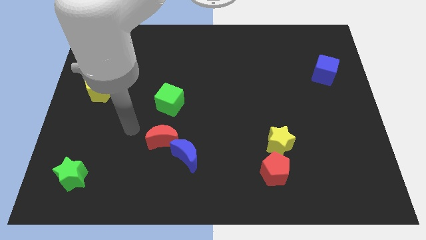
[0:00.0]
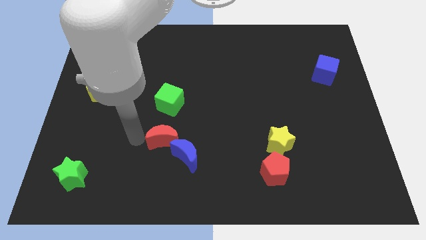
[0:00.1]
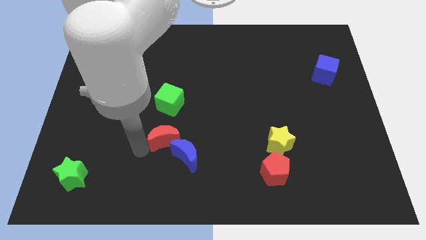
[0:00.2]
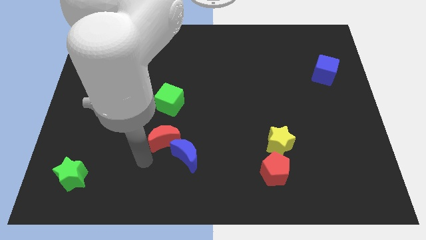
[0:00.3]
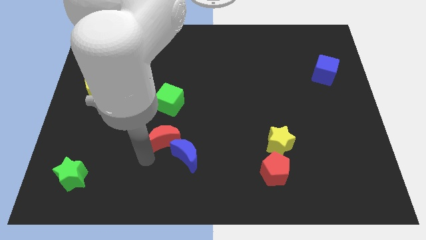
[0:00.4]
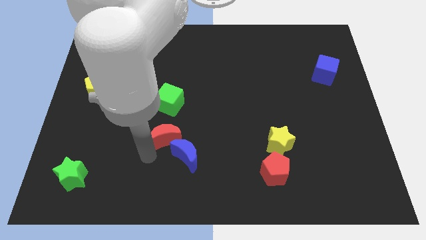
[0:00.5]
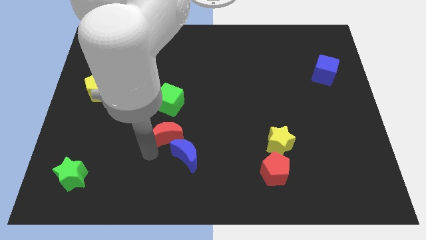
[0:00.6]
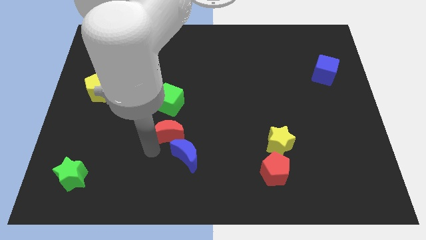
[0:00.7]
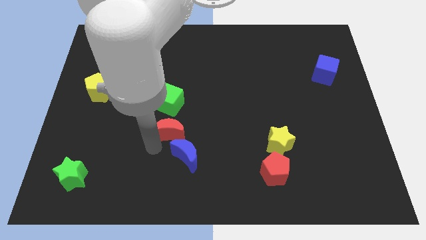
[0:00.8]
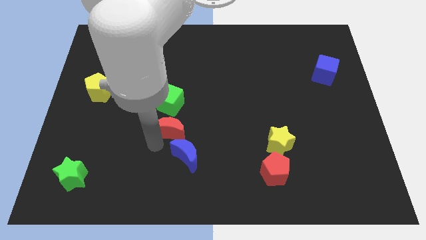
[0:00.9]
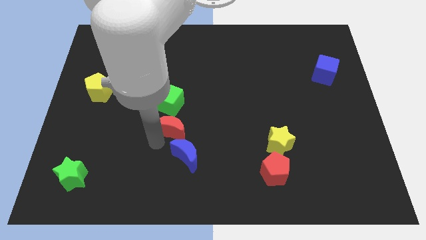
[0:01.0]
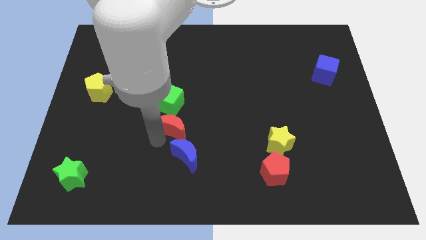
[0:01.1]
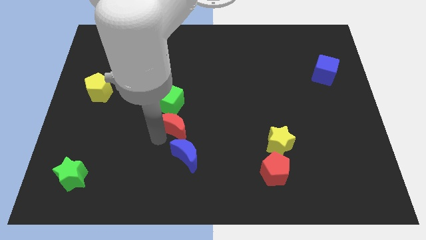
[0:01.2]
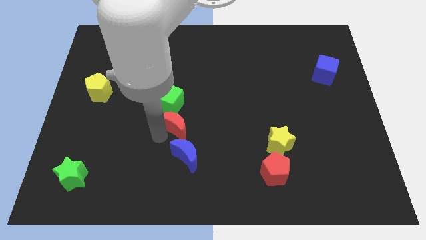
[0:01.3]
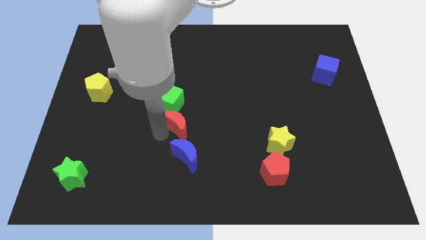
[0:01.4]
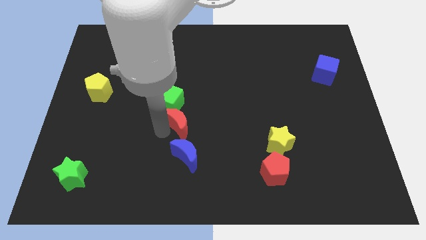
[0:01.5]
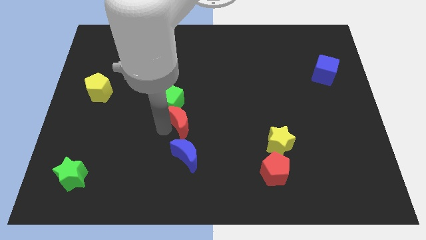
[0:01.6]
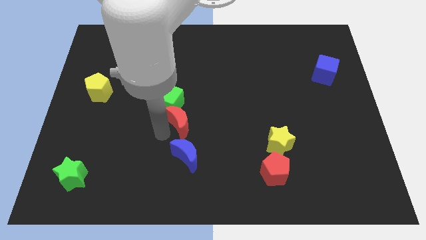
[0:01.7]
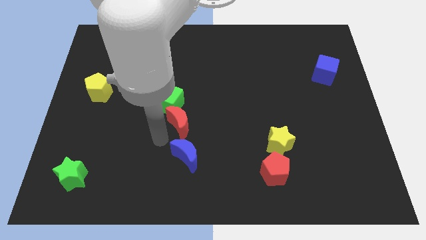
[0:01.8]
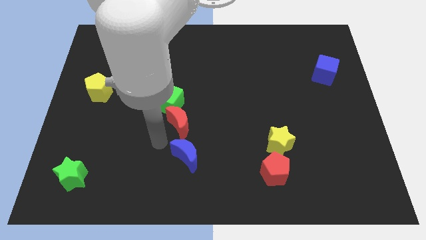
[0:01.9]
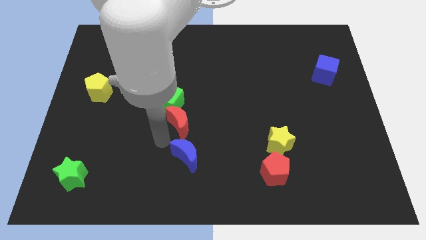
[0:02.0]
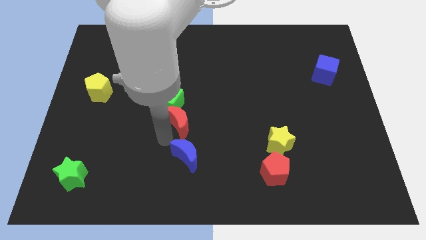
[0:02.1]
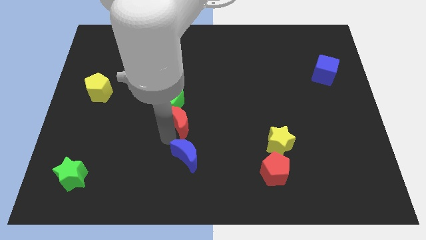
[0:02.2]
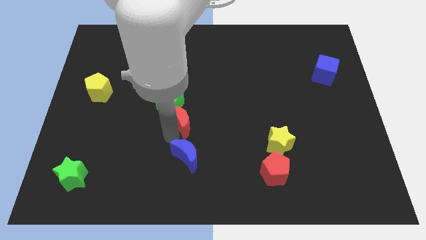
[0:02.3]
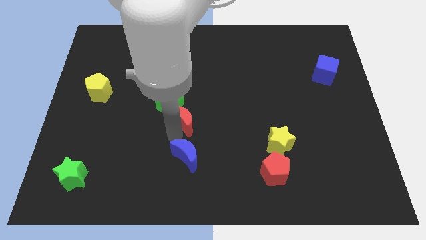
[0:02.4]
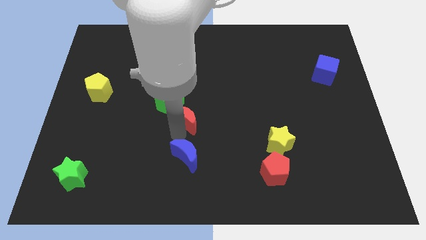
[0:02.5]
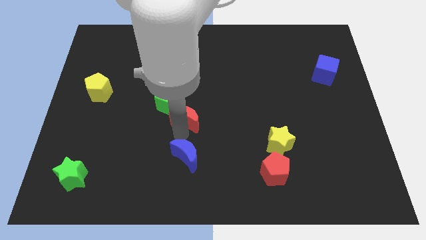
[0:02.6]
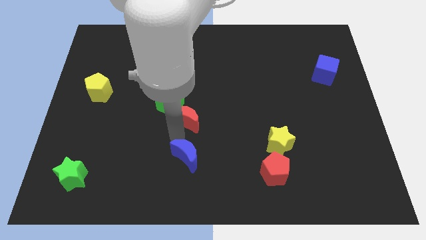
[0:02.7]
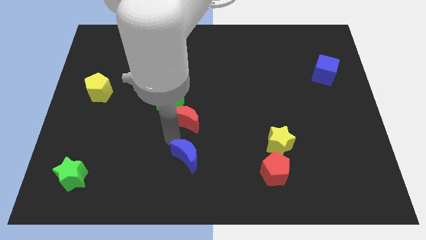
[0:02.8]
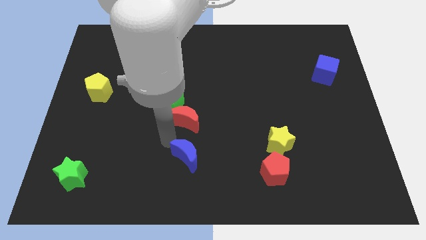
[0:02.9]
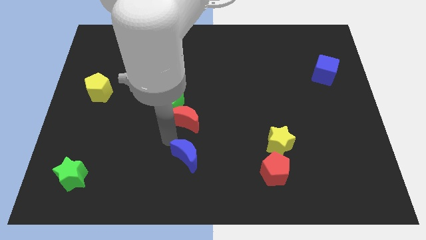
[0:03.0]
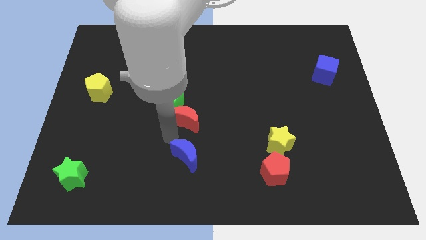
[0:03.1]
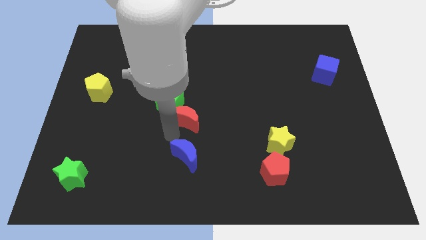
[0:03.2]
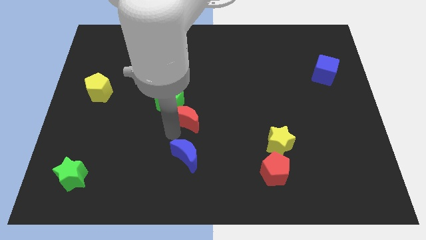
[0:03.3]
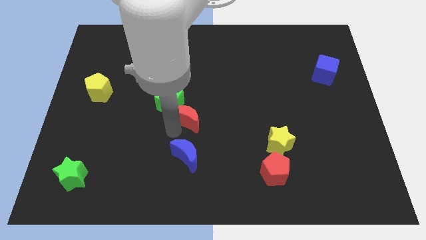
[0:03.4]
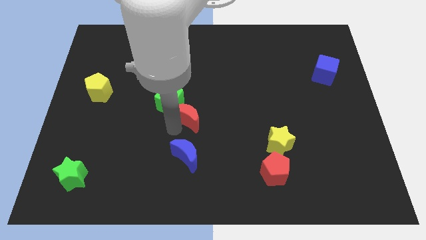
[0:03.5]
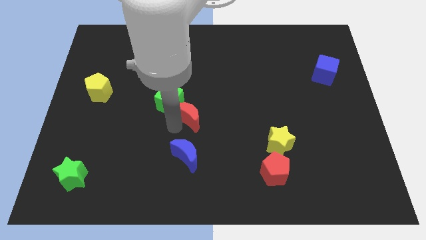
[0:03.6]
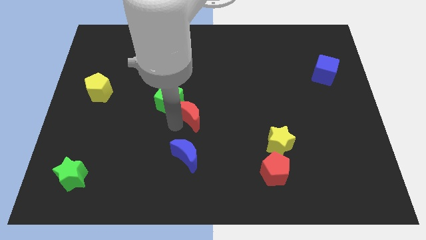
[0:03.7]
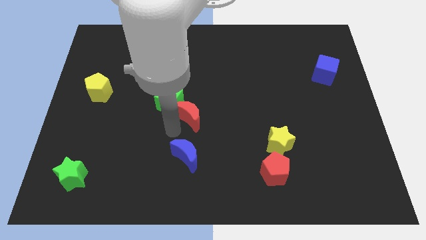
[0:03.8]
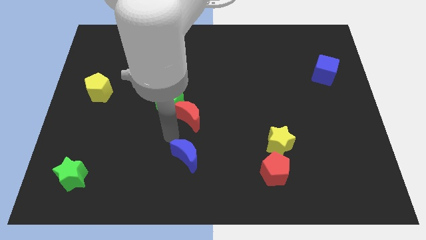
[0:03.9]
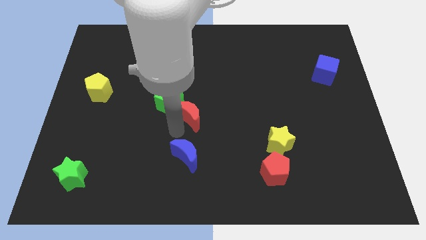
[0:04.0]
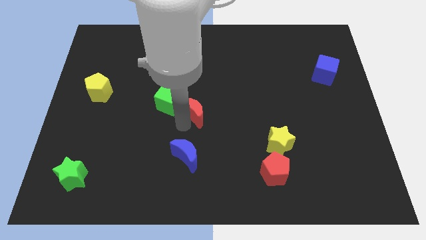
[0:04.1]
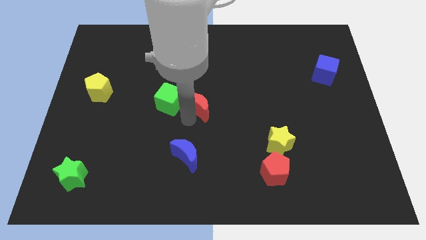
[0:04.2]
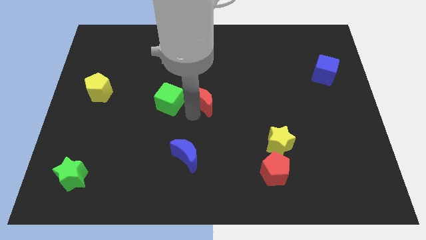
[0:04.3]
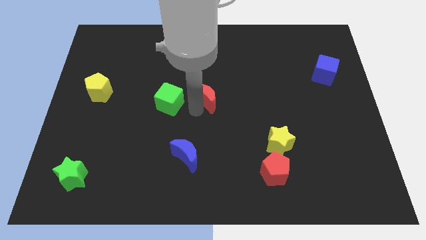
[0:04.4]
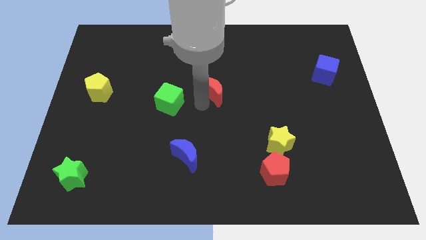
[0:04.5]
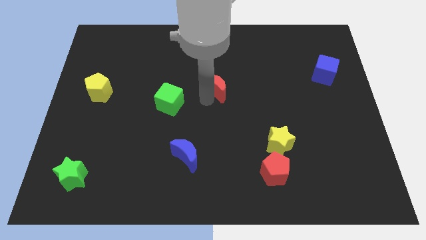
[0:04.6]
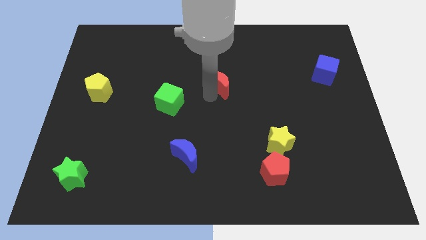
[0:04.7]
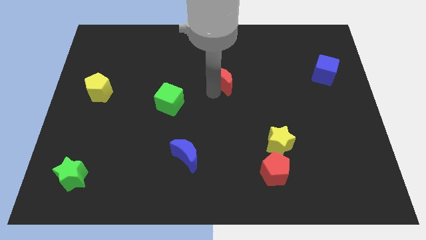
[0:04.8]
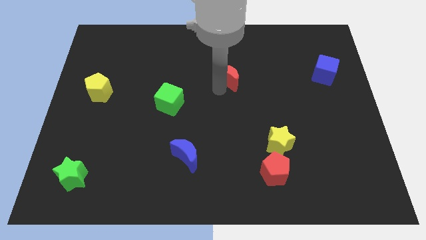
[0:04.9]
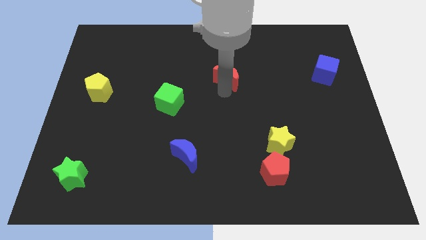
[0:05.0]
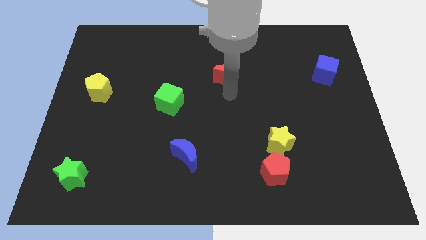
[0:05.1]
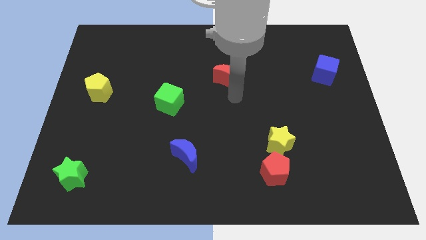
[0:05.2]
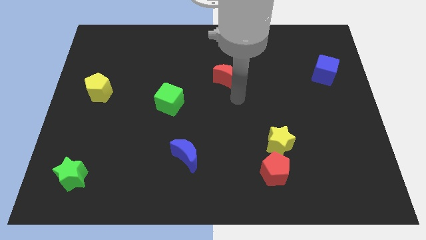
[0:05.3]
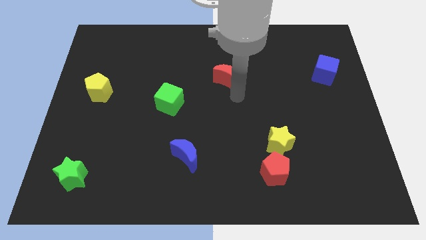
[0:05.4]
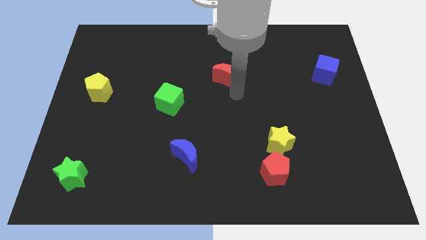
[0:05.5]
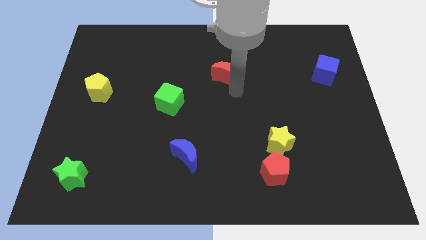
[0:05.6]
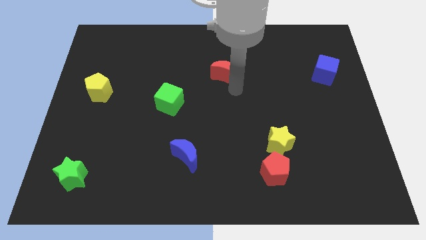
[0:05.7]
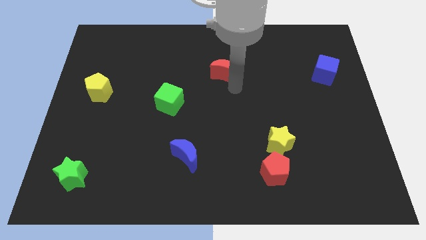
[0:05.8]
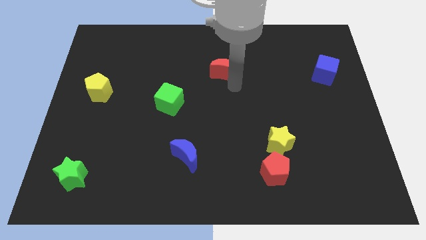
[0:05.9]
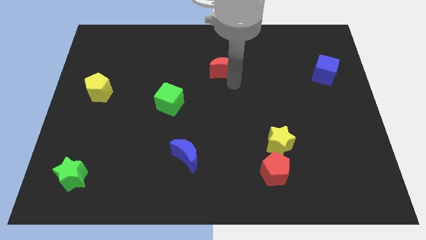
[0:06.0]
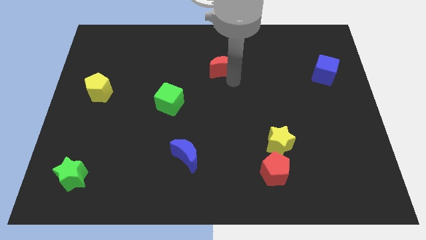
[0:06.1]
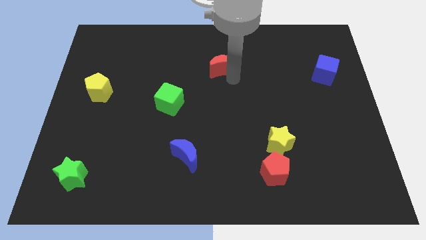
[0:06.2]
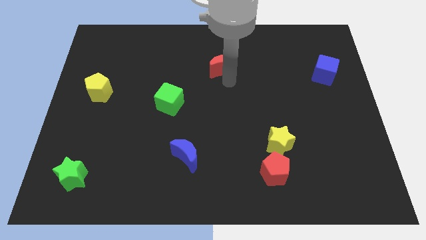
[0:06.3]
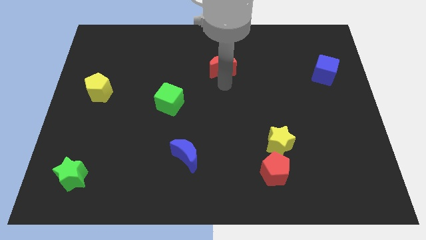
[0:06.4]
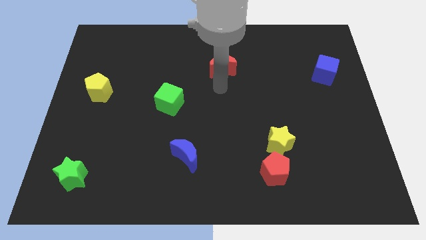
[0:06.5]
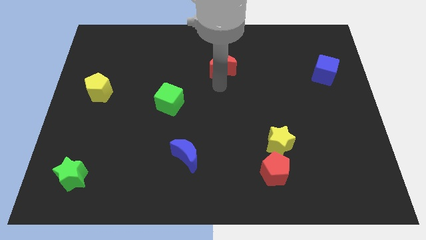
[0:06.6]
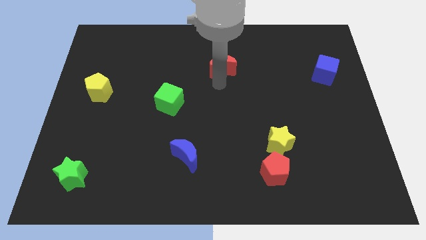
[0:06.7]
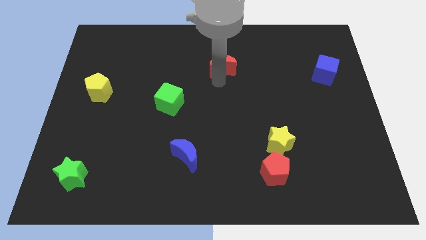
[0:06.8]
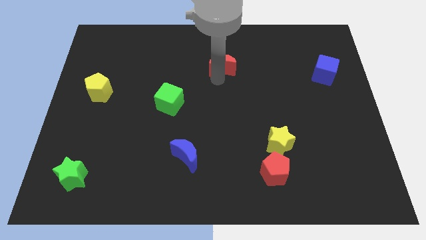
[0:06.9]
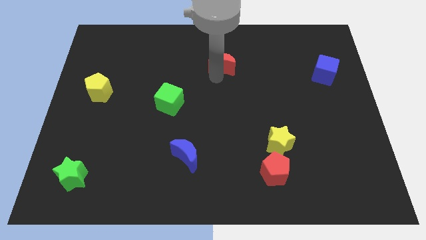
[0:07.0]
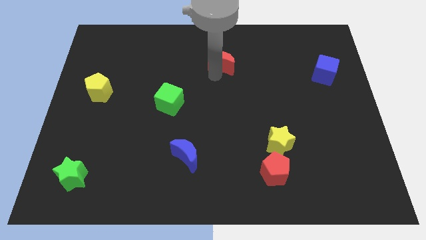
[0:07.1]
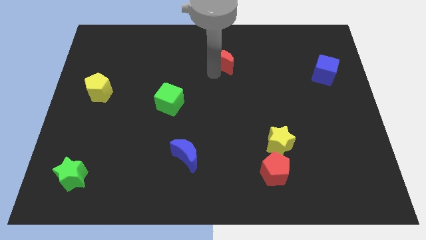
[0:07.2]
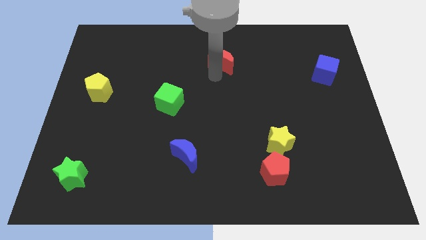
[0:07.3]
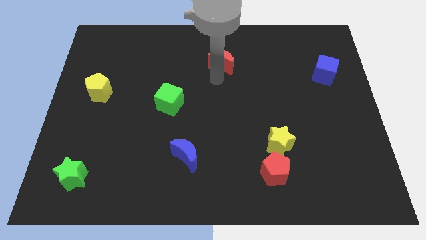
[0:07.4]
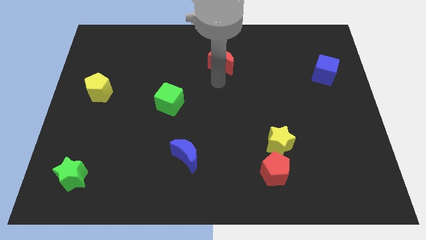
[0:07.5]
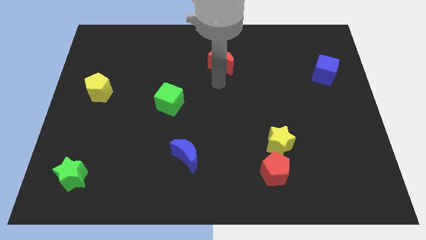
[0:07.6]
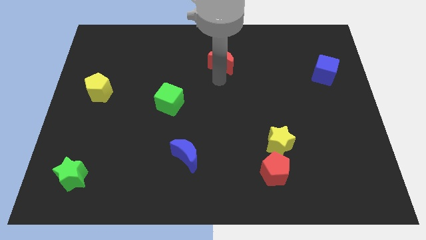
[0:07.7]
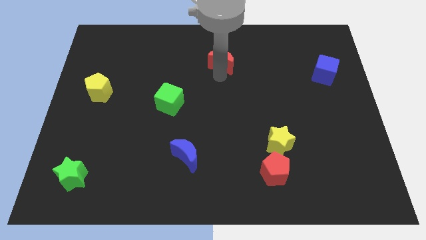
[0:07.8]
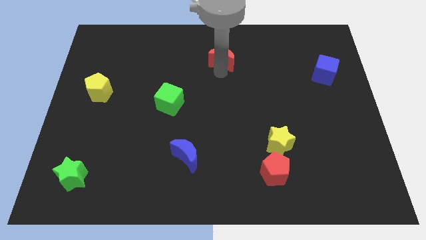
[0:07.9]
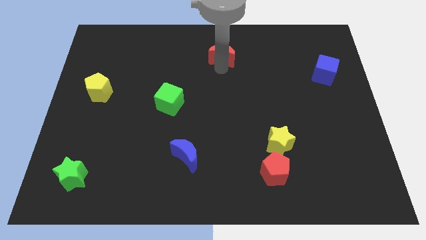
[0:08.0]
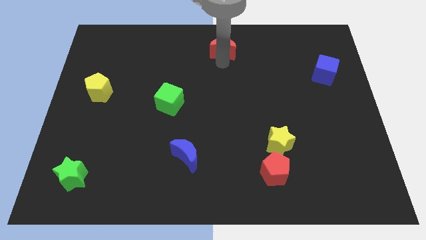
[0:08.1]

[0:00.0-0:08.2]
slide the red moon to the top side

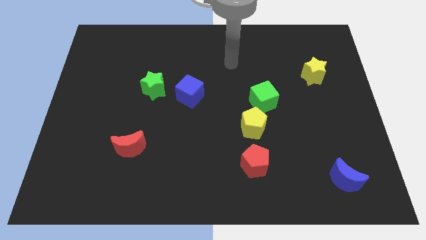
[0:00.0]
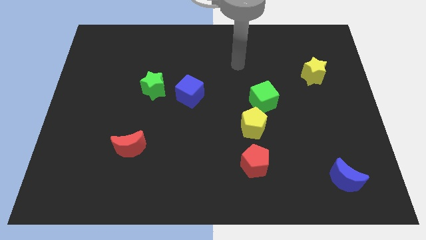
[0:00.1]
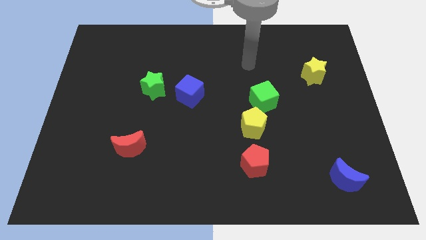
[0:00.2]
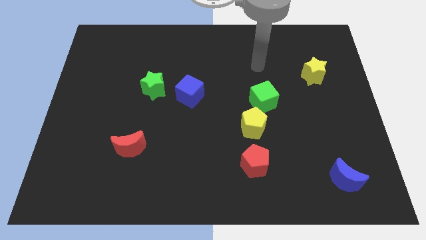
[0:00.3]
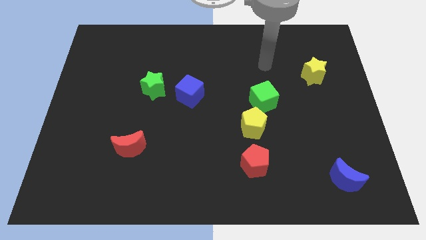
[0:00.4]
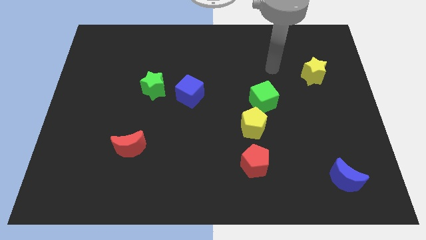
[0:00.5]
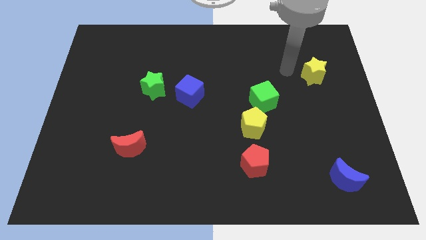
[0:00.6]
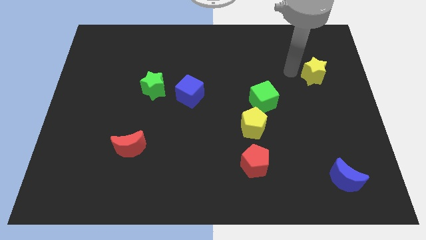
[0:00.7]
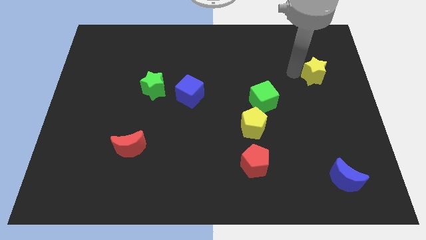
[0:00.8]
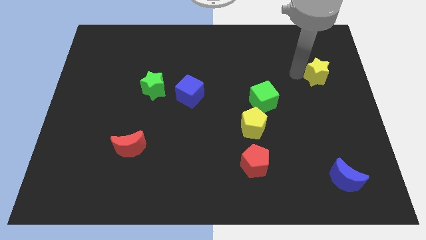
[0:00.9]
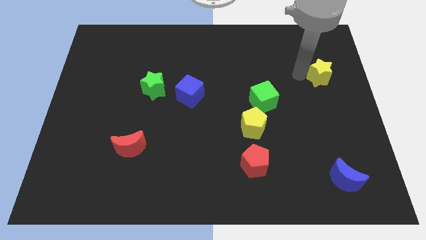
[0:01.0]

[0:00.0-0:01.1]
move the yellow star to the right side
